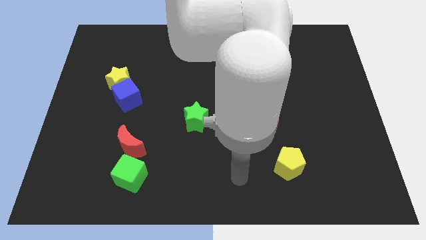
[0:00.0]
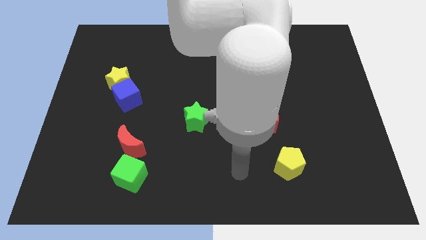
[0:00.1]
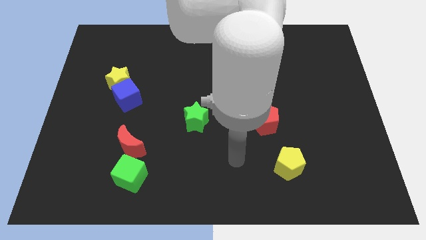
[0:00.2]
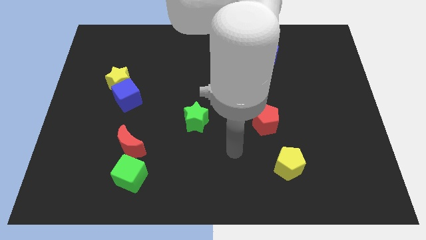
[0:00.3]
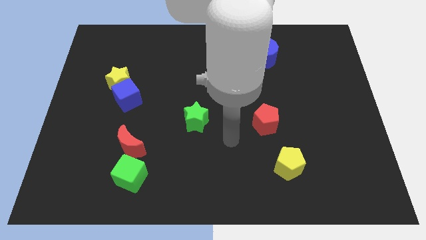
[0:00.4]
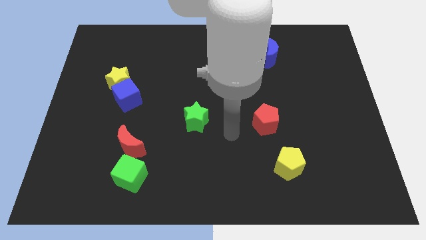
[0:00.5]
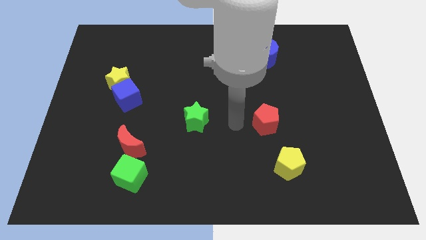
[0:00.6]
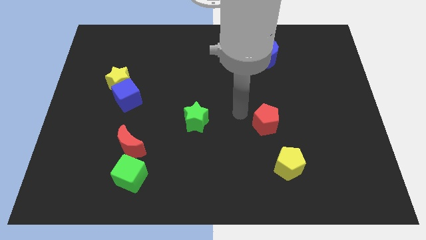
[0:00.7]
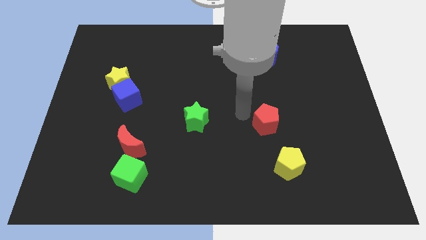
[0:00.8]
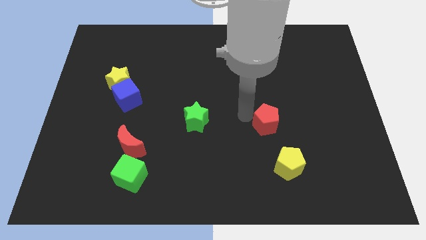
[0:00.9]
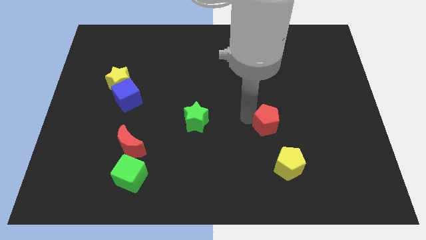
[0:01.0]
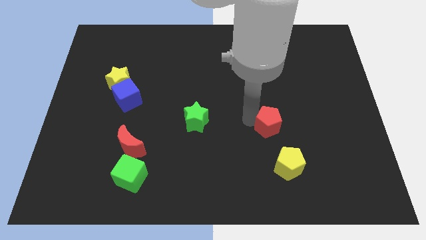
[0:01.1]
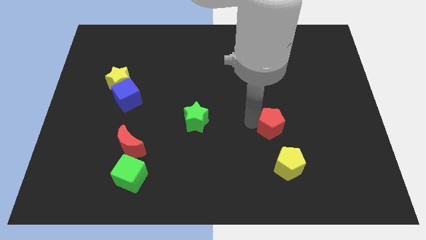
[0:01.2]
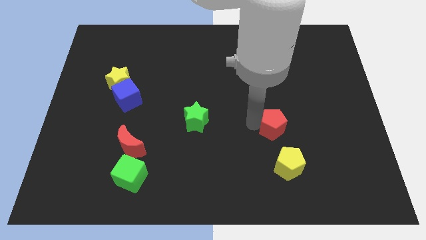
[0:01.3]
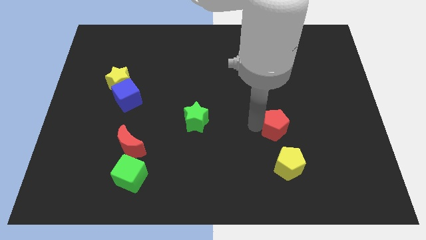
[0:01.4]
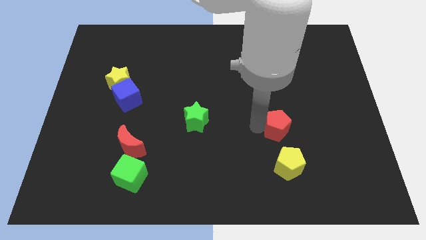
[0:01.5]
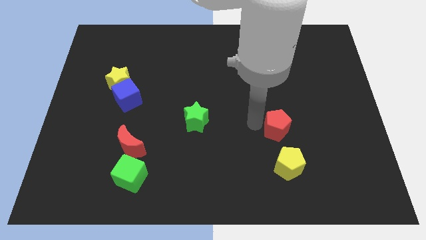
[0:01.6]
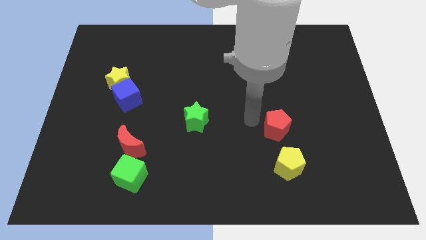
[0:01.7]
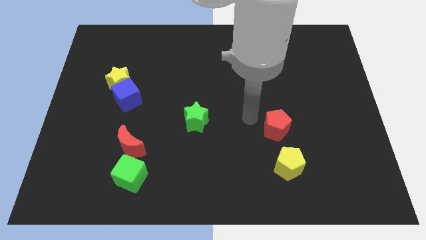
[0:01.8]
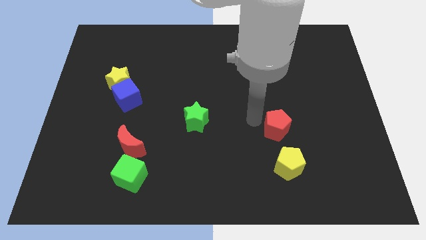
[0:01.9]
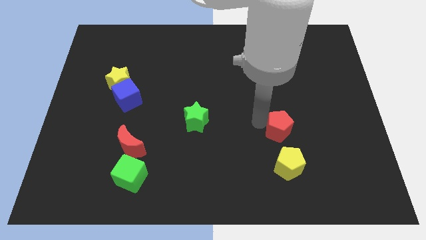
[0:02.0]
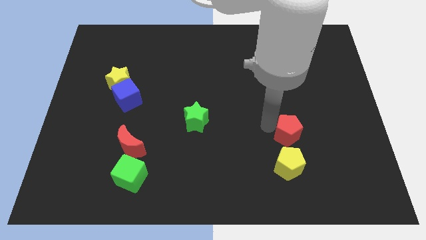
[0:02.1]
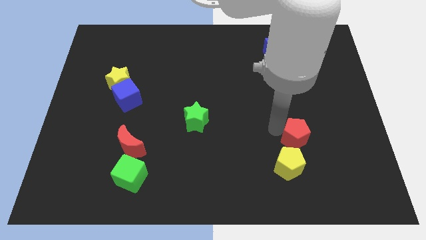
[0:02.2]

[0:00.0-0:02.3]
slightly push the red pentagon diagonally downwards and right

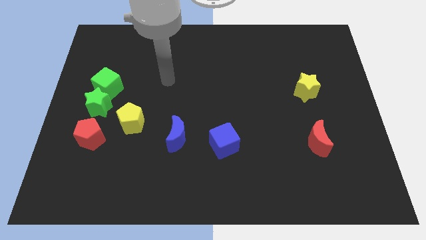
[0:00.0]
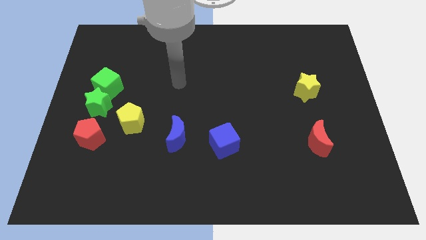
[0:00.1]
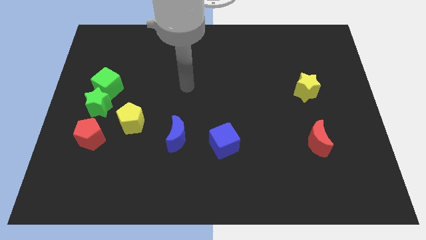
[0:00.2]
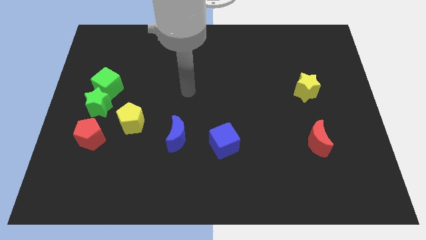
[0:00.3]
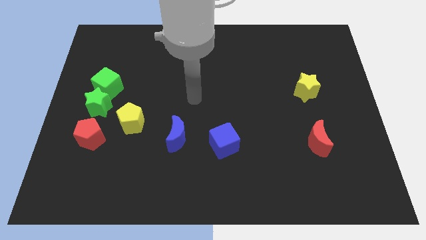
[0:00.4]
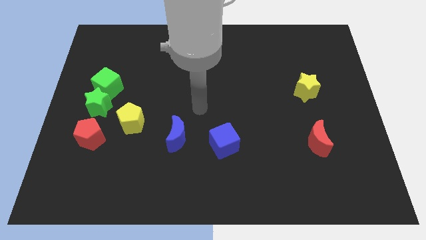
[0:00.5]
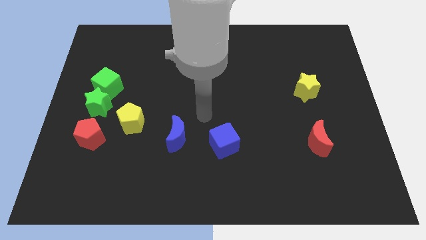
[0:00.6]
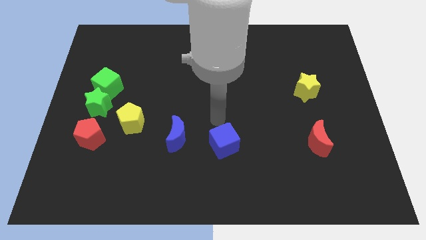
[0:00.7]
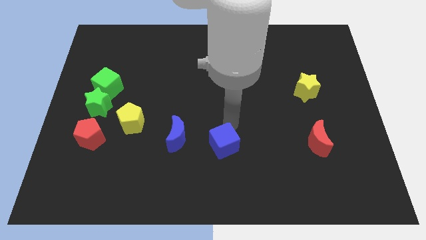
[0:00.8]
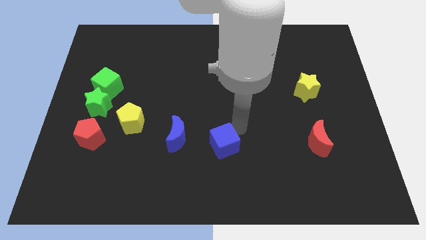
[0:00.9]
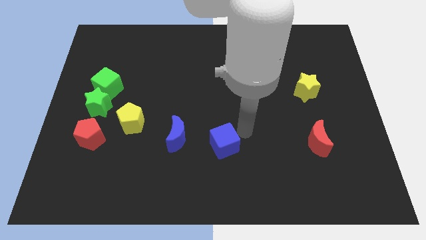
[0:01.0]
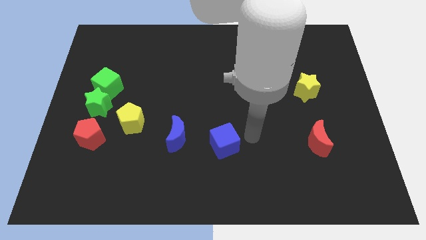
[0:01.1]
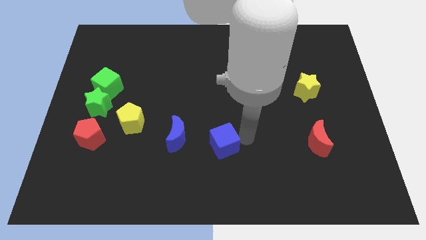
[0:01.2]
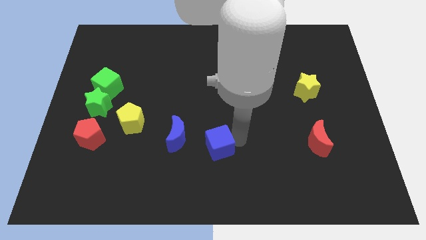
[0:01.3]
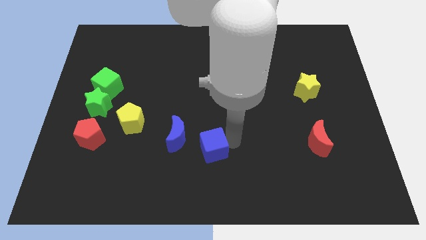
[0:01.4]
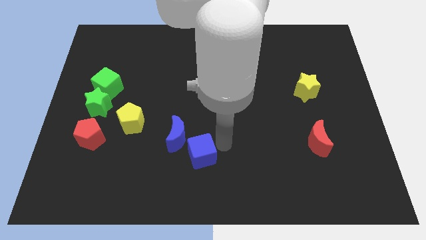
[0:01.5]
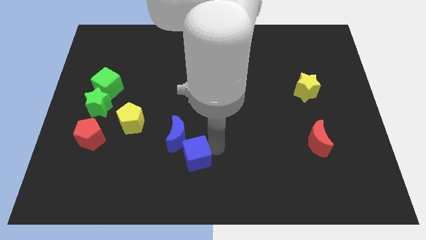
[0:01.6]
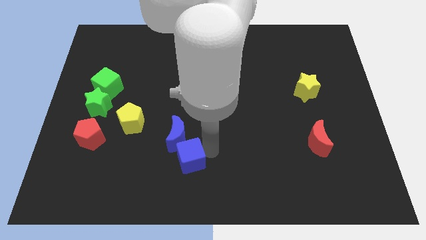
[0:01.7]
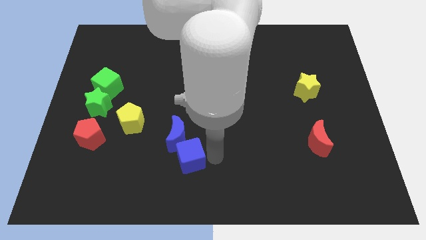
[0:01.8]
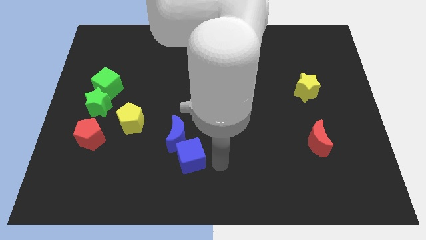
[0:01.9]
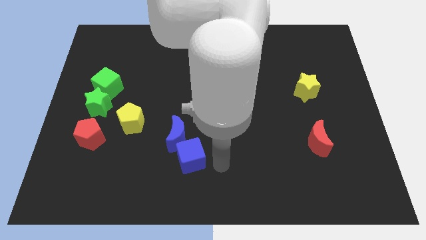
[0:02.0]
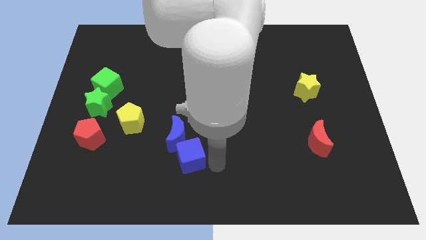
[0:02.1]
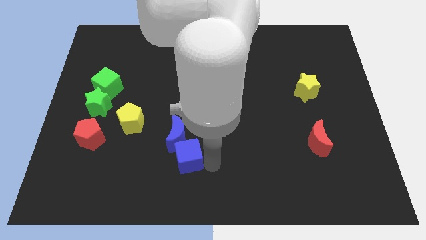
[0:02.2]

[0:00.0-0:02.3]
push the blue cube a little bit to the left

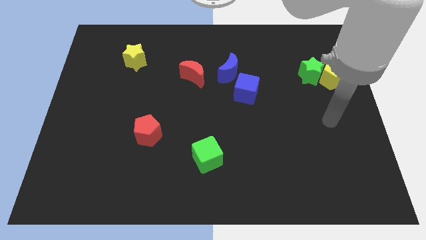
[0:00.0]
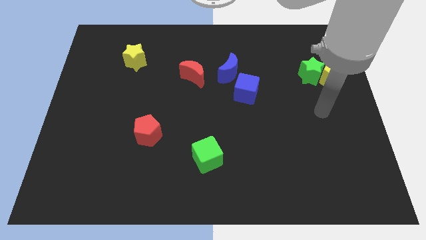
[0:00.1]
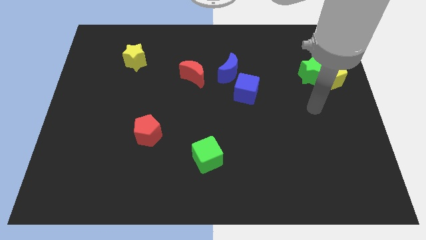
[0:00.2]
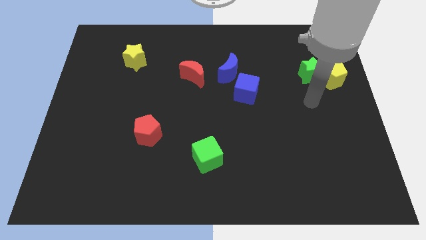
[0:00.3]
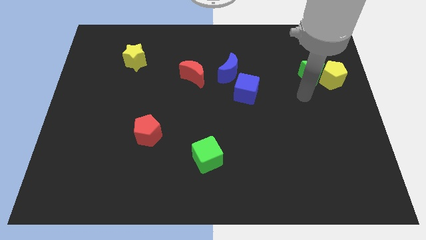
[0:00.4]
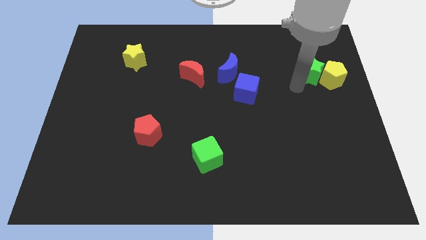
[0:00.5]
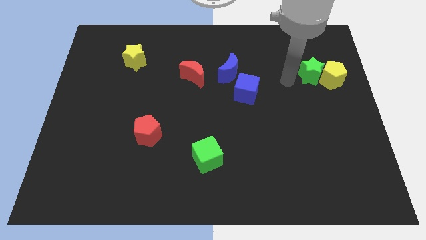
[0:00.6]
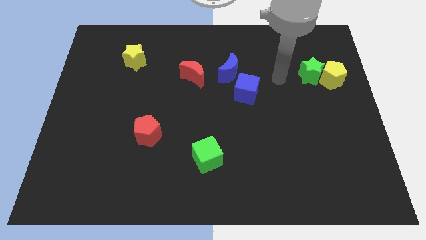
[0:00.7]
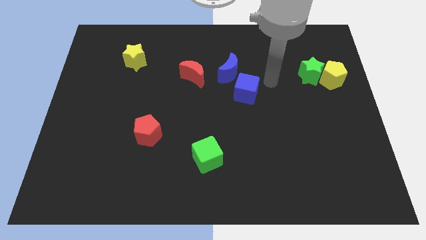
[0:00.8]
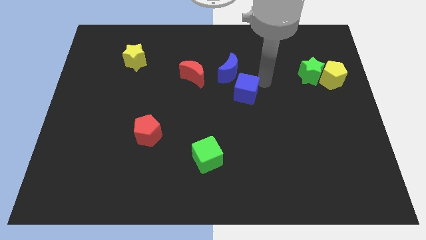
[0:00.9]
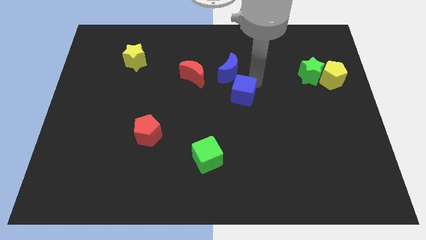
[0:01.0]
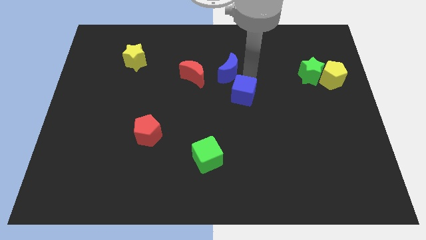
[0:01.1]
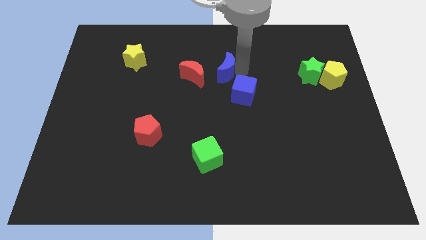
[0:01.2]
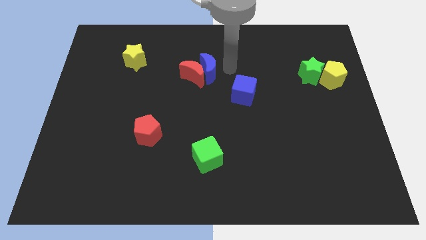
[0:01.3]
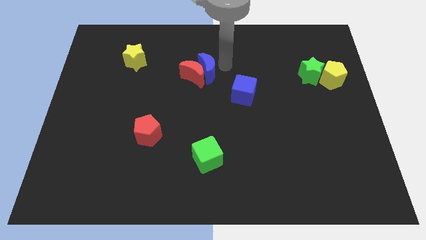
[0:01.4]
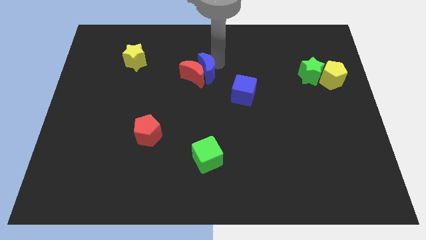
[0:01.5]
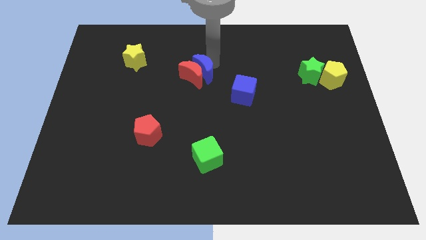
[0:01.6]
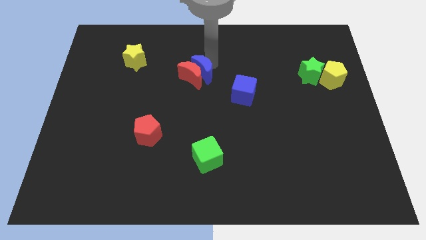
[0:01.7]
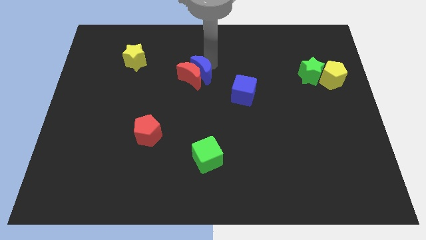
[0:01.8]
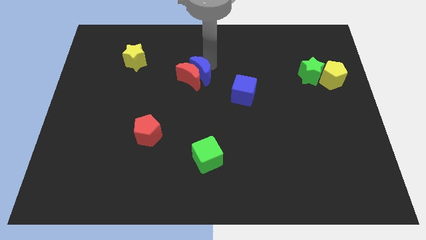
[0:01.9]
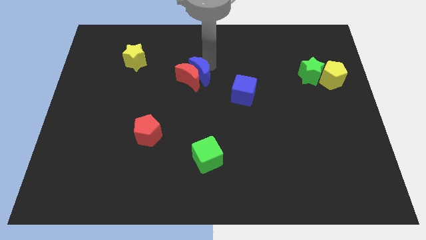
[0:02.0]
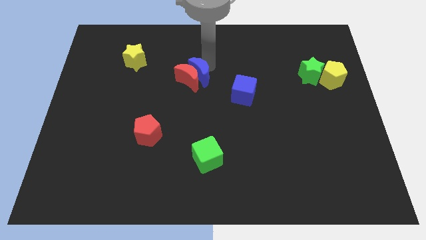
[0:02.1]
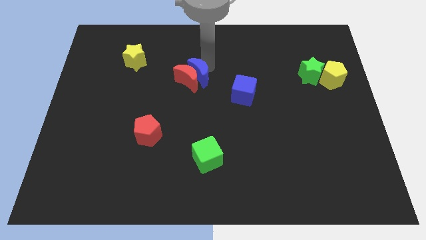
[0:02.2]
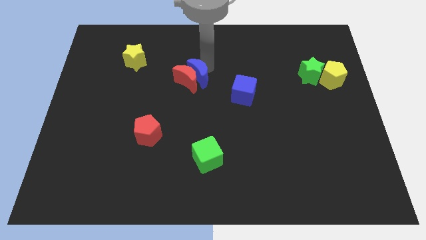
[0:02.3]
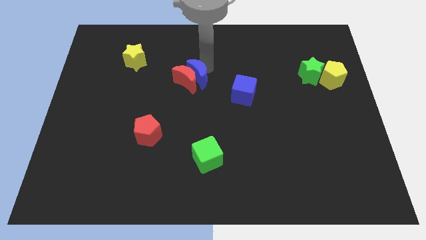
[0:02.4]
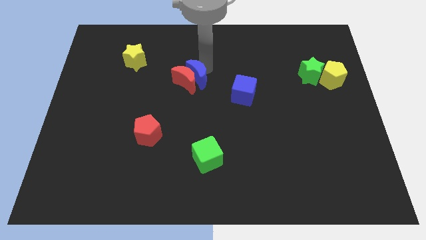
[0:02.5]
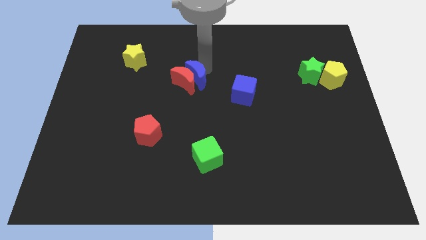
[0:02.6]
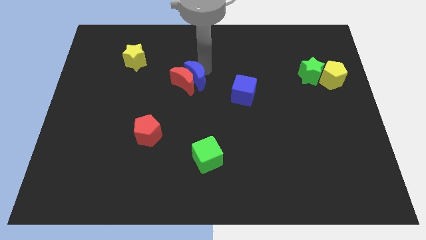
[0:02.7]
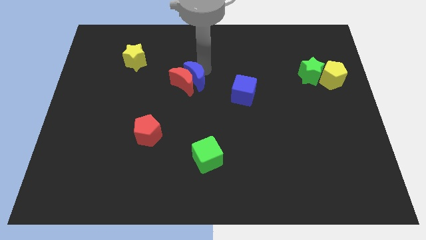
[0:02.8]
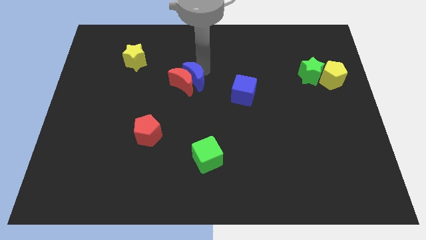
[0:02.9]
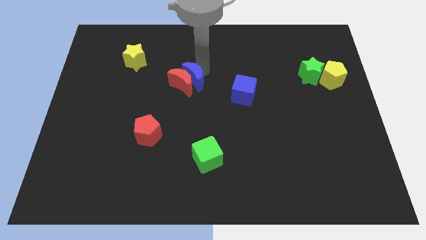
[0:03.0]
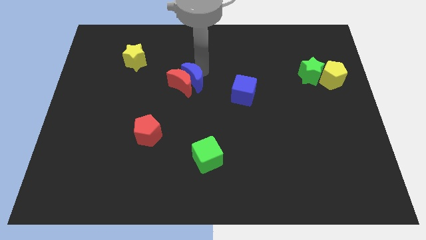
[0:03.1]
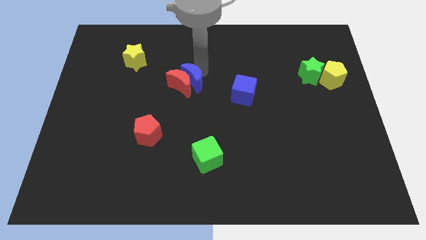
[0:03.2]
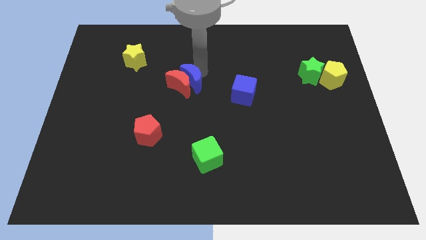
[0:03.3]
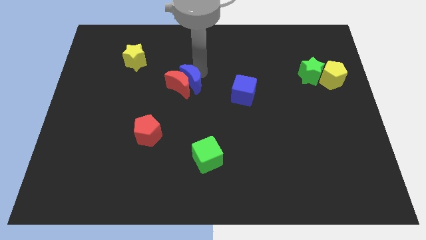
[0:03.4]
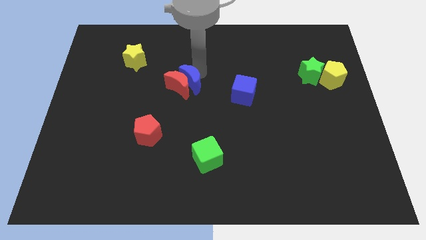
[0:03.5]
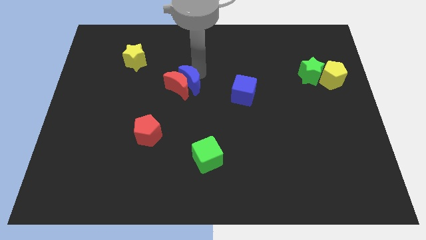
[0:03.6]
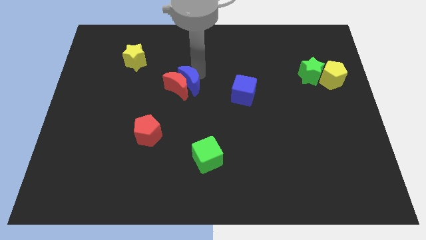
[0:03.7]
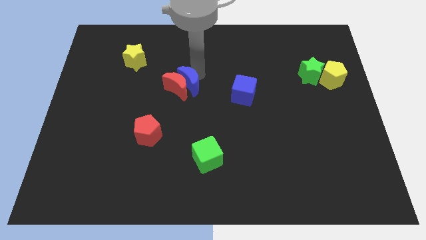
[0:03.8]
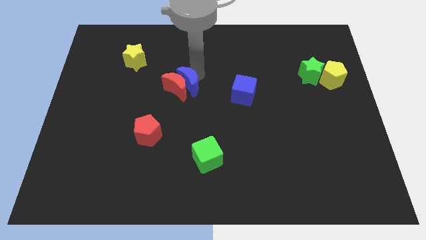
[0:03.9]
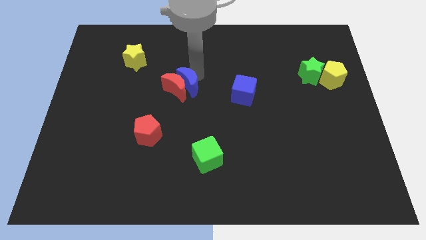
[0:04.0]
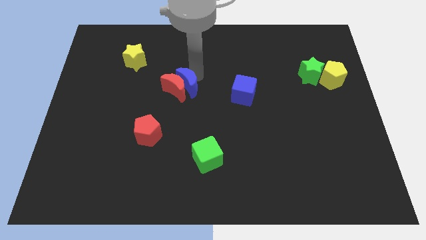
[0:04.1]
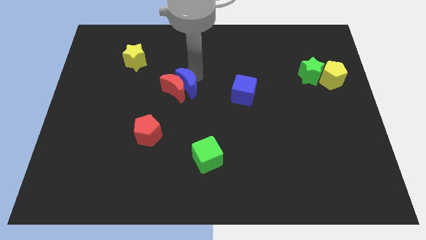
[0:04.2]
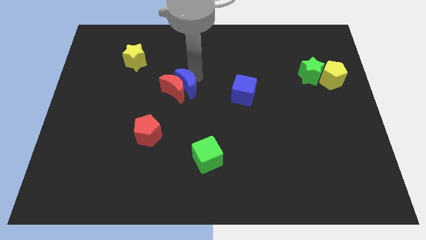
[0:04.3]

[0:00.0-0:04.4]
slide the red moon slightly downwards and then to the left
